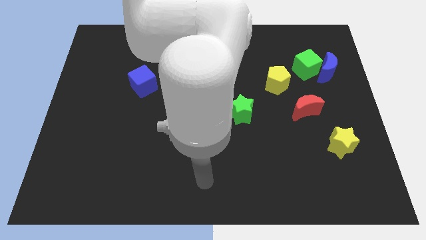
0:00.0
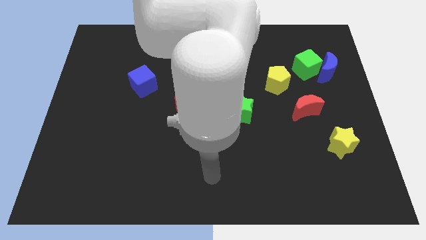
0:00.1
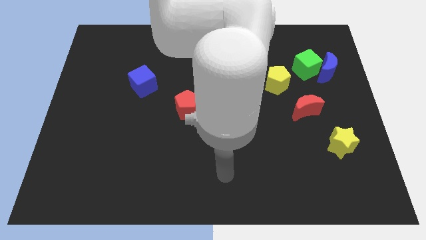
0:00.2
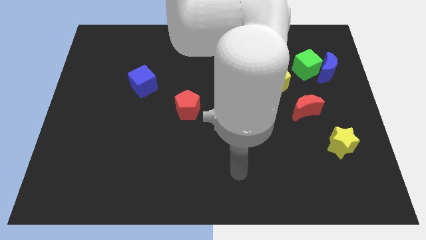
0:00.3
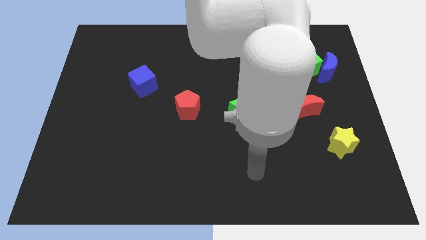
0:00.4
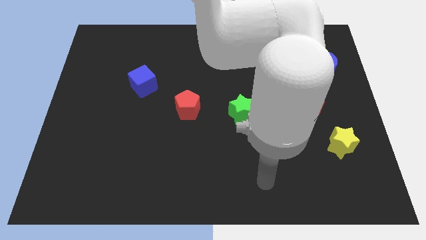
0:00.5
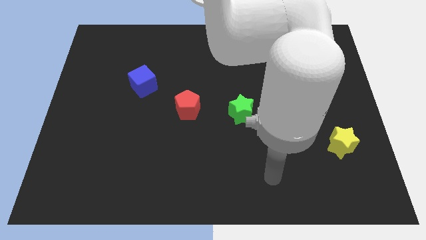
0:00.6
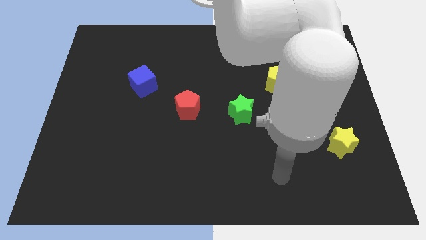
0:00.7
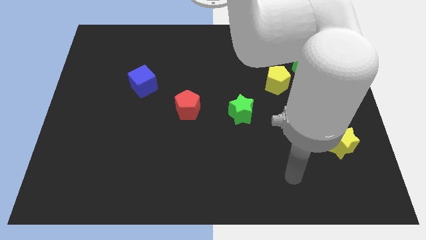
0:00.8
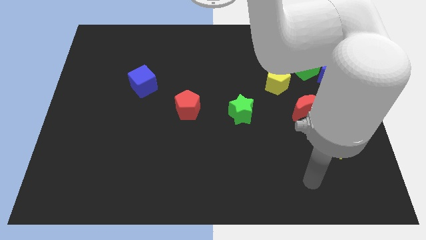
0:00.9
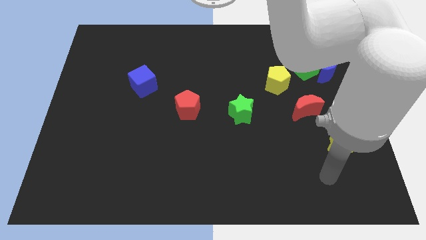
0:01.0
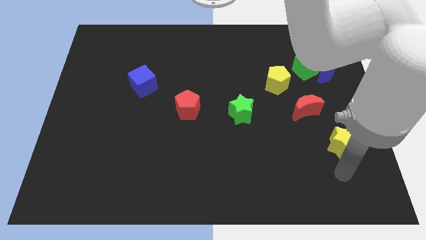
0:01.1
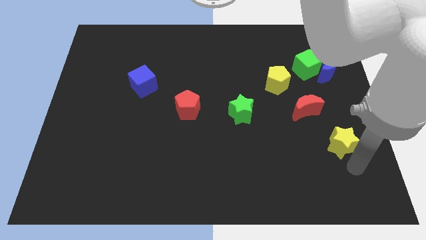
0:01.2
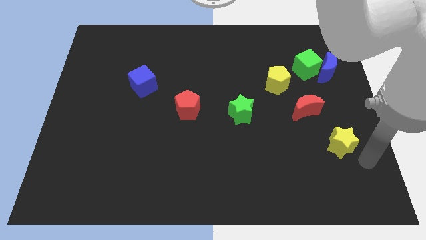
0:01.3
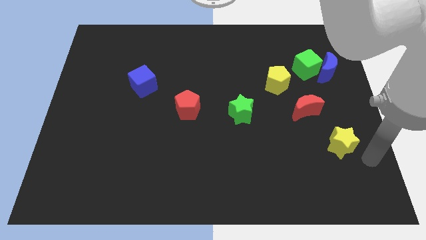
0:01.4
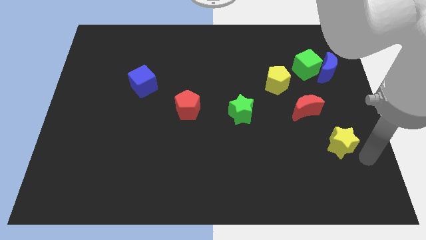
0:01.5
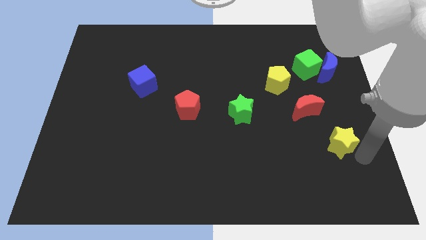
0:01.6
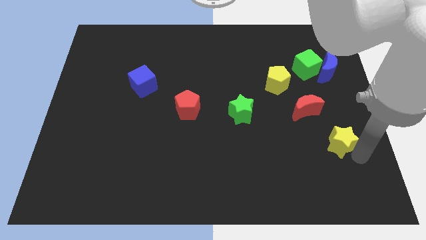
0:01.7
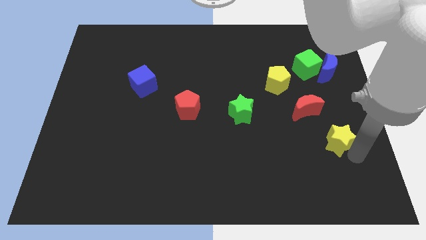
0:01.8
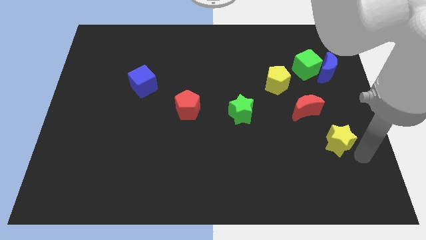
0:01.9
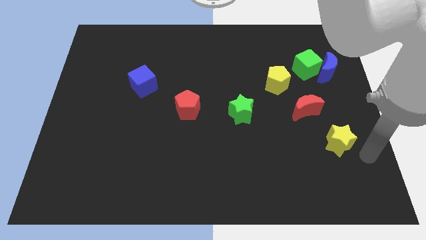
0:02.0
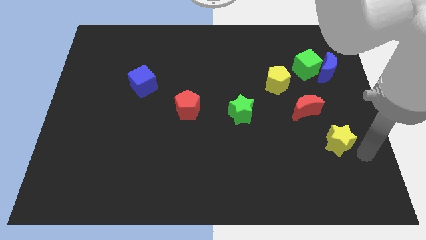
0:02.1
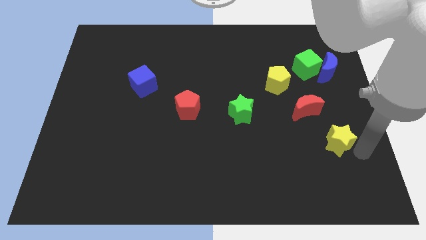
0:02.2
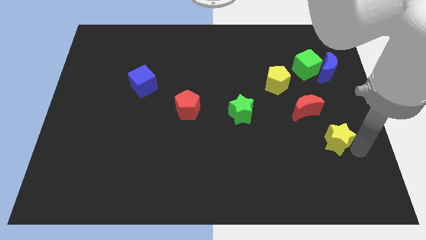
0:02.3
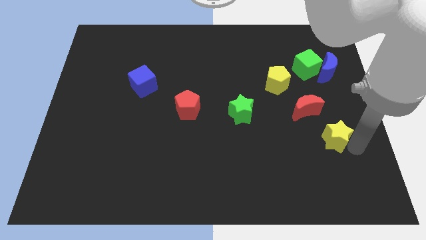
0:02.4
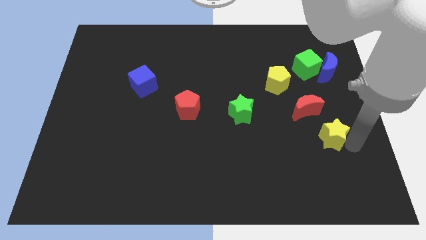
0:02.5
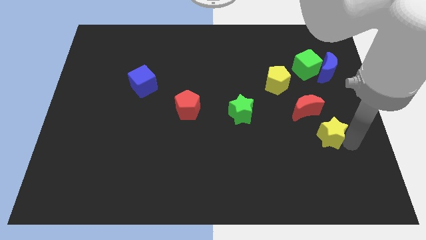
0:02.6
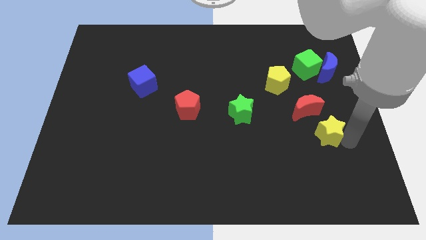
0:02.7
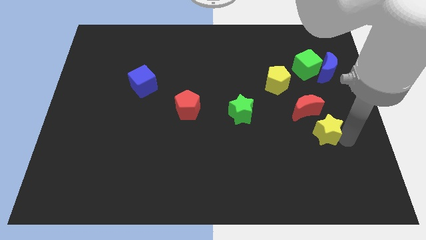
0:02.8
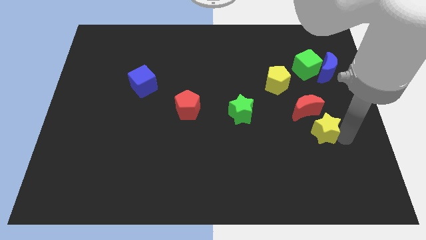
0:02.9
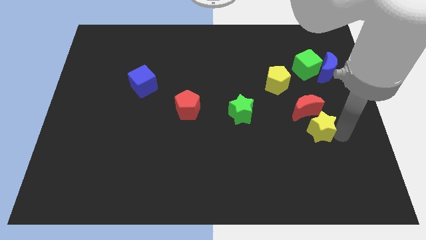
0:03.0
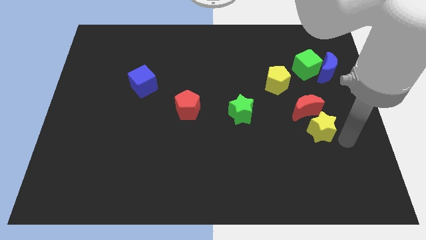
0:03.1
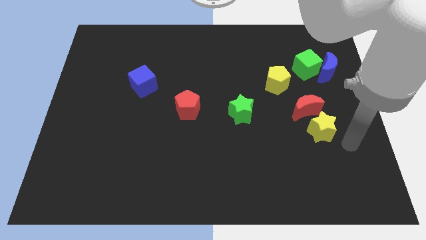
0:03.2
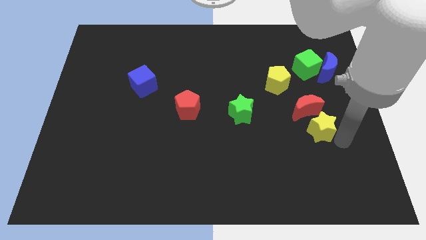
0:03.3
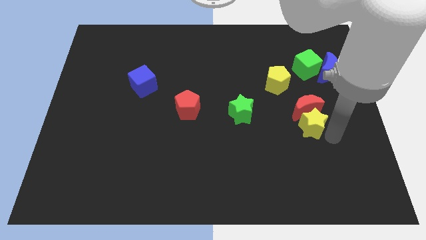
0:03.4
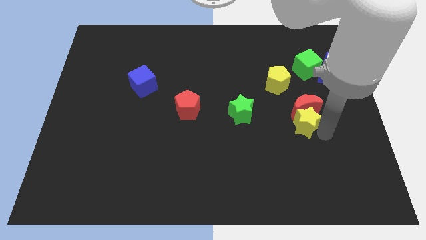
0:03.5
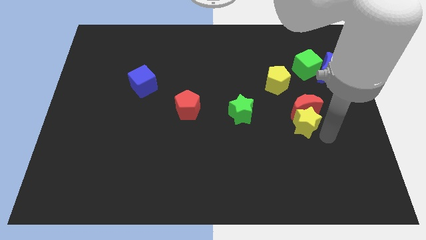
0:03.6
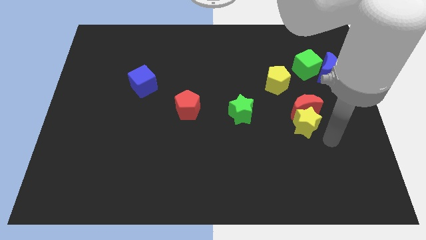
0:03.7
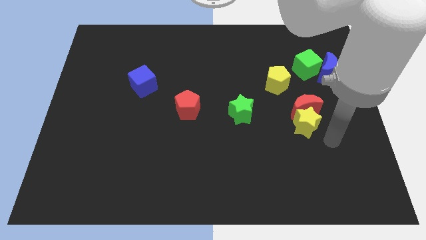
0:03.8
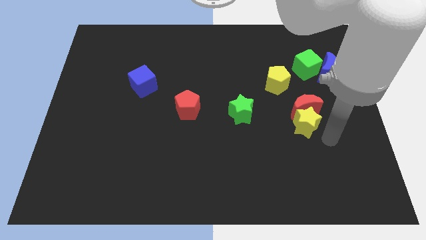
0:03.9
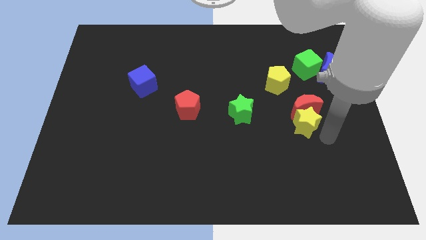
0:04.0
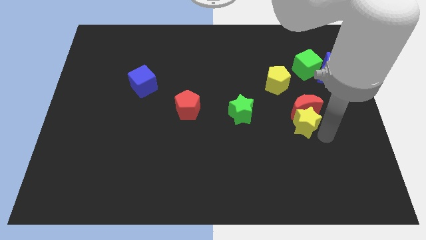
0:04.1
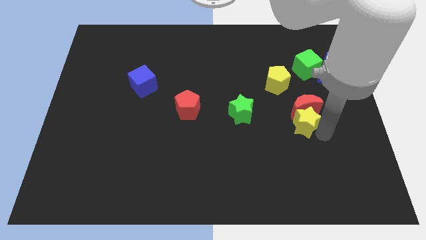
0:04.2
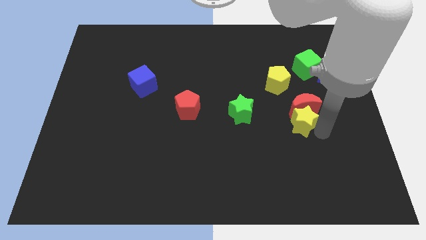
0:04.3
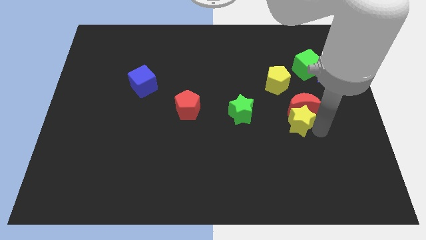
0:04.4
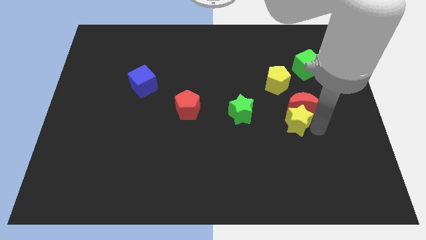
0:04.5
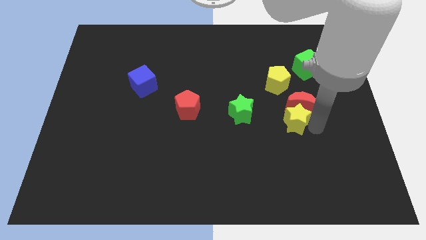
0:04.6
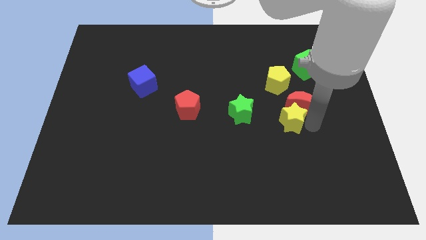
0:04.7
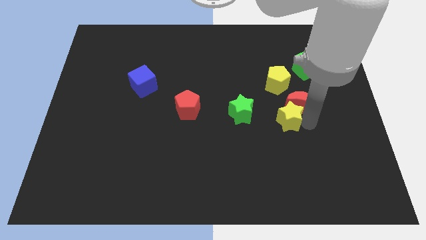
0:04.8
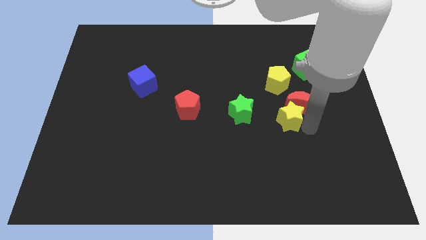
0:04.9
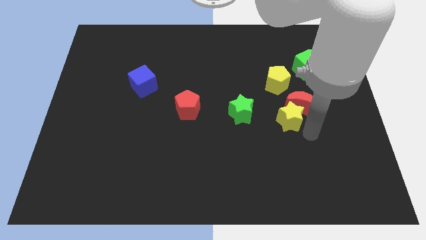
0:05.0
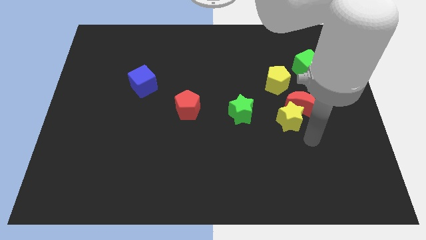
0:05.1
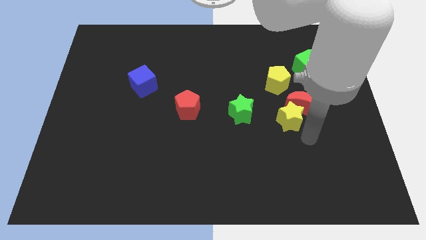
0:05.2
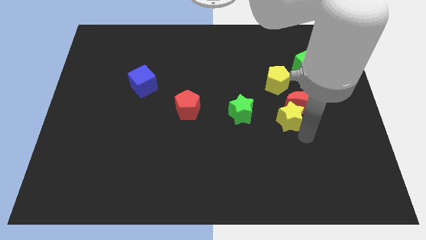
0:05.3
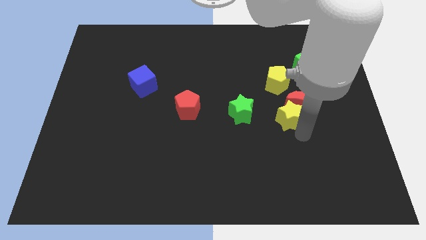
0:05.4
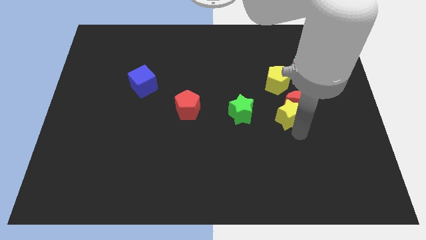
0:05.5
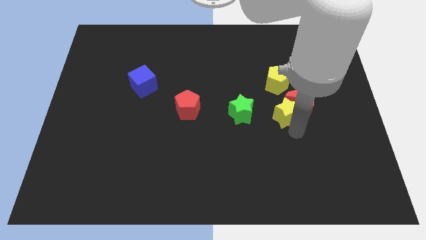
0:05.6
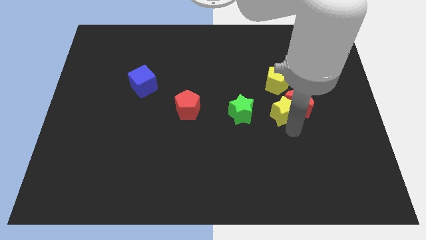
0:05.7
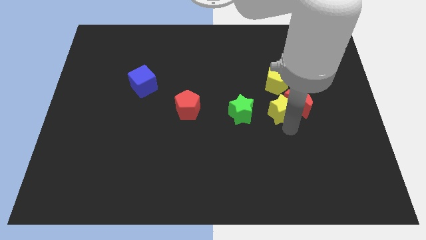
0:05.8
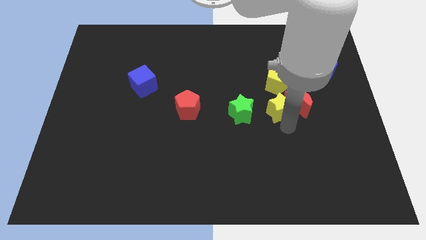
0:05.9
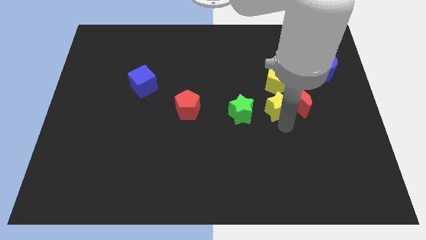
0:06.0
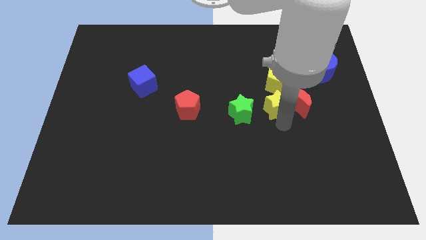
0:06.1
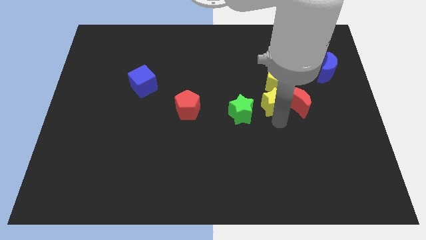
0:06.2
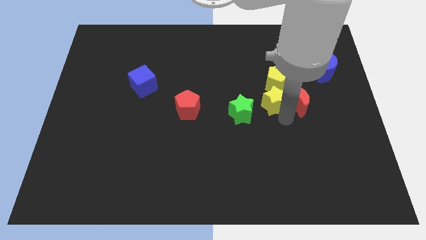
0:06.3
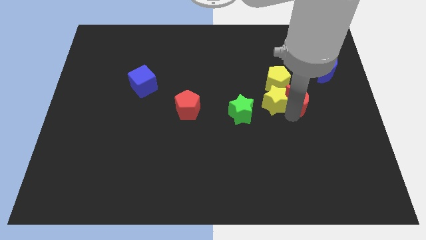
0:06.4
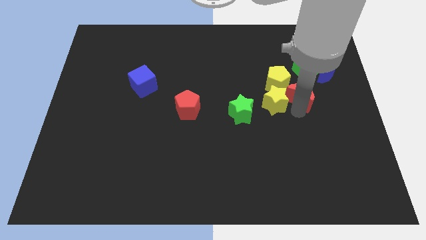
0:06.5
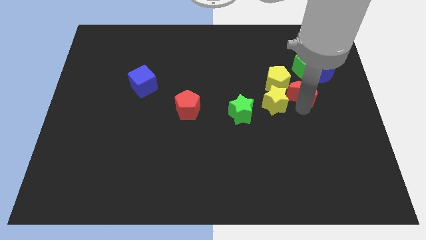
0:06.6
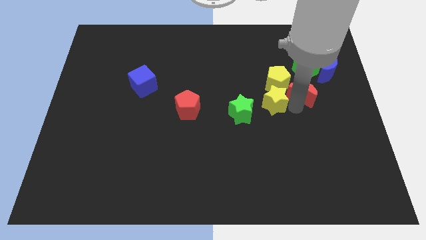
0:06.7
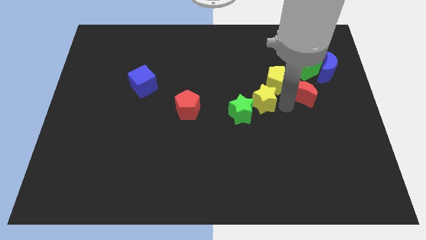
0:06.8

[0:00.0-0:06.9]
put the yellow star to the middle of the board
